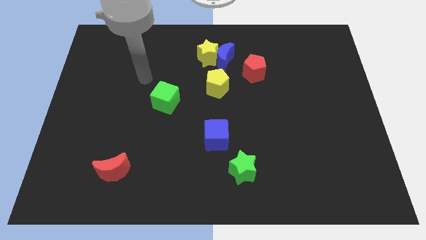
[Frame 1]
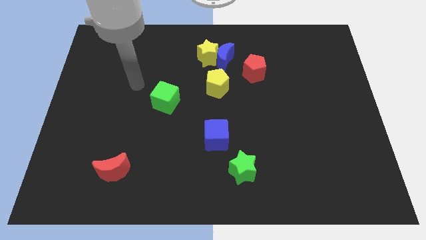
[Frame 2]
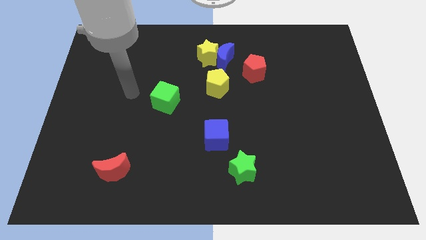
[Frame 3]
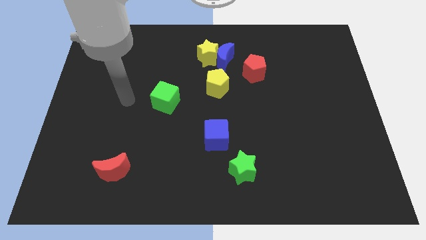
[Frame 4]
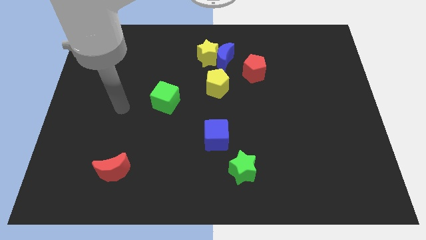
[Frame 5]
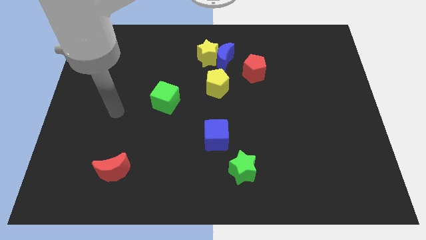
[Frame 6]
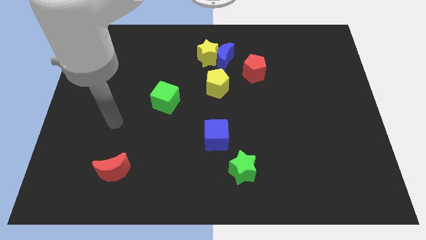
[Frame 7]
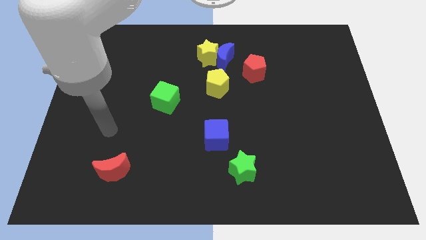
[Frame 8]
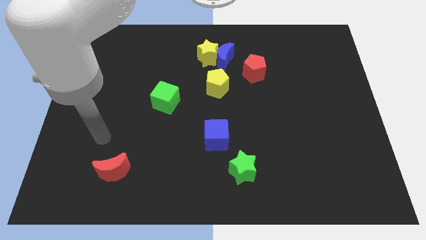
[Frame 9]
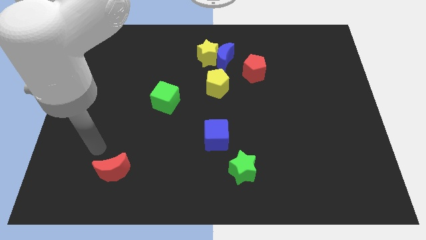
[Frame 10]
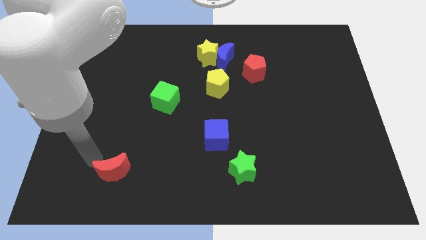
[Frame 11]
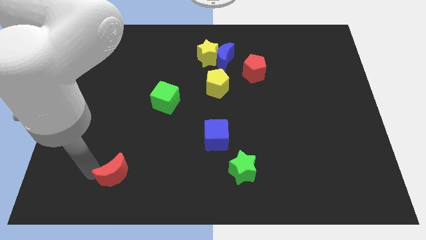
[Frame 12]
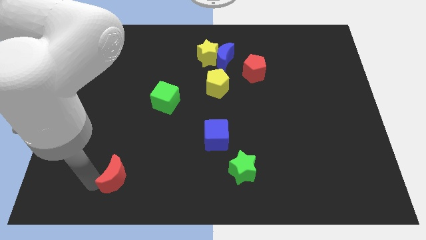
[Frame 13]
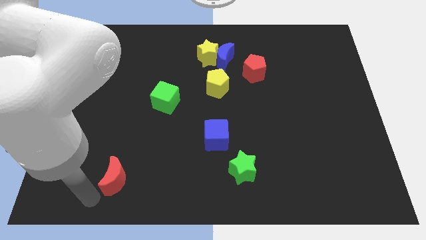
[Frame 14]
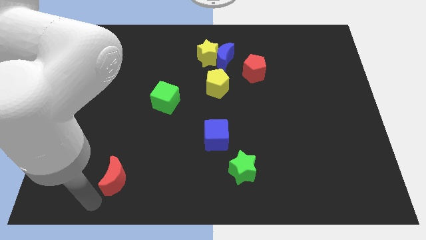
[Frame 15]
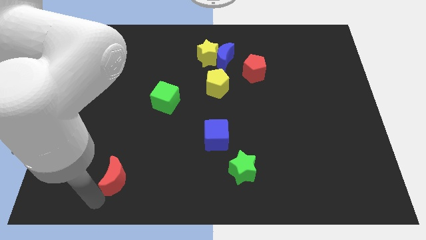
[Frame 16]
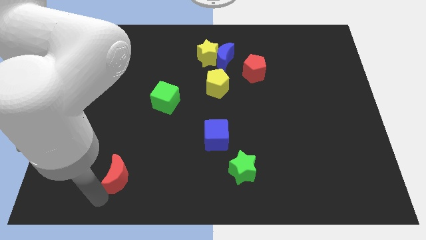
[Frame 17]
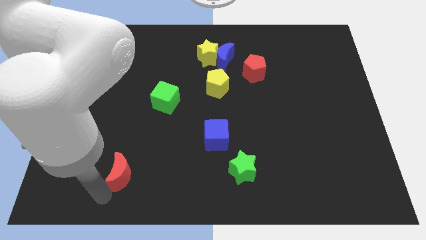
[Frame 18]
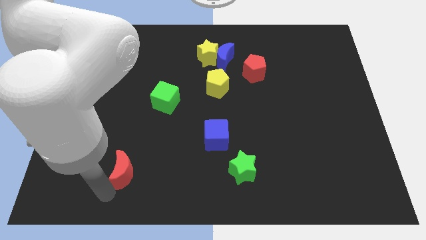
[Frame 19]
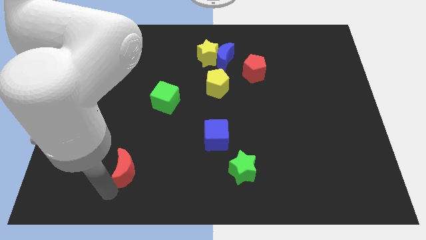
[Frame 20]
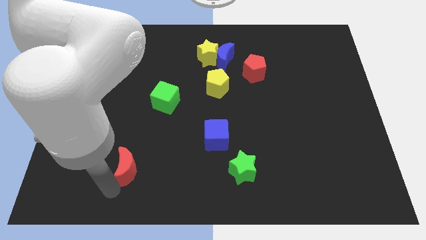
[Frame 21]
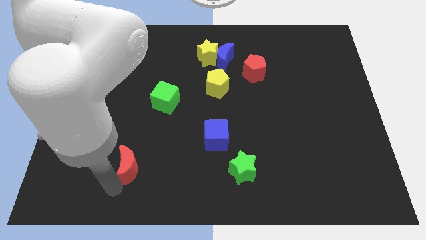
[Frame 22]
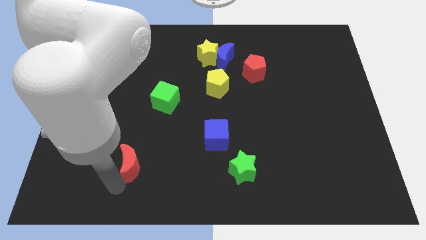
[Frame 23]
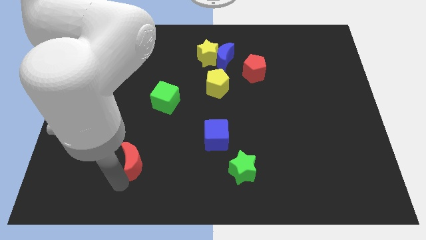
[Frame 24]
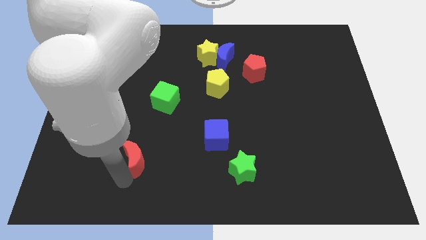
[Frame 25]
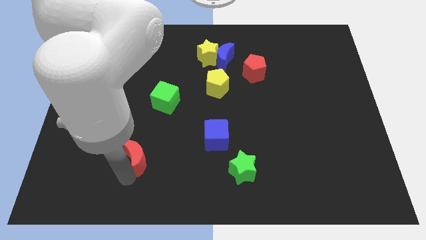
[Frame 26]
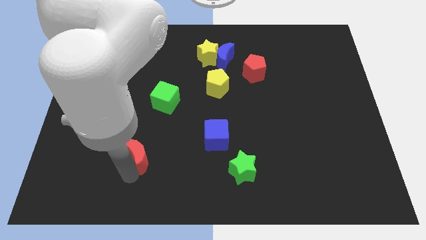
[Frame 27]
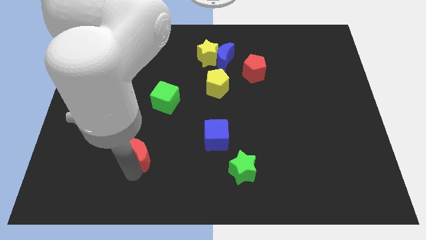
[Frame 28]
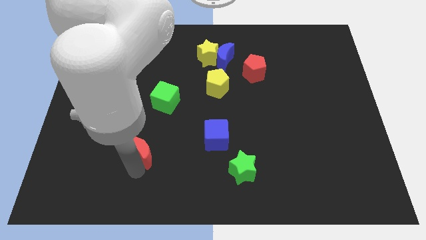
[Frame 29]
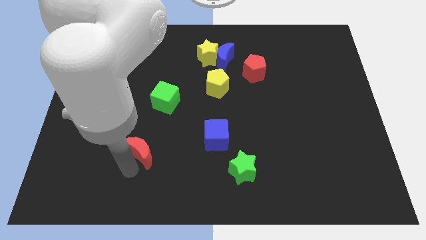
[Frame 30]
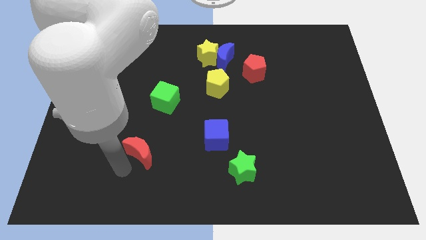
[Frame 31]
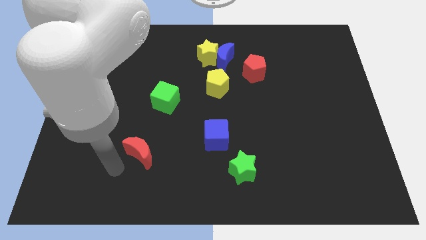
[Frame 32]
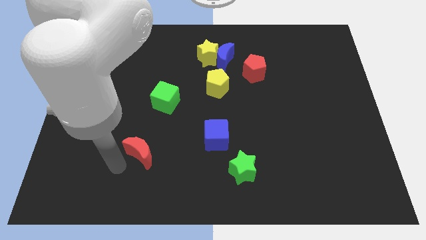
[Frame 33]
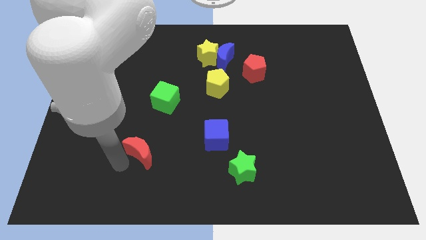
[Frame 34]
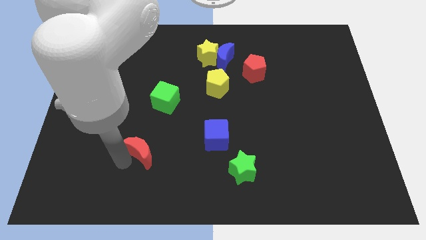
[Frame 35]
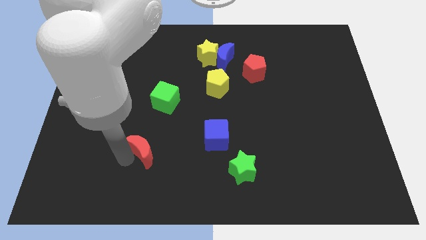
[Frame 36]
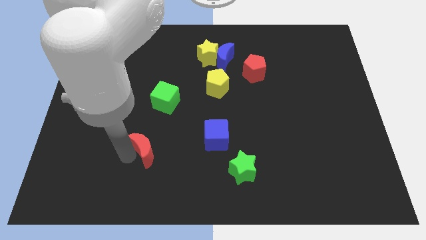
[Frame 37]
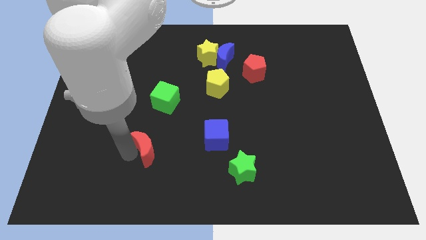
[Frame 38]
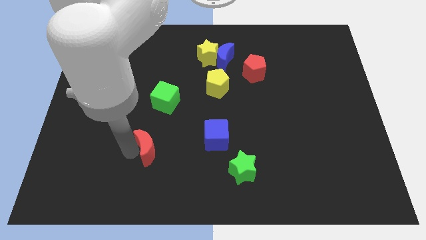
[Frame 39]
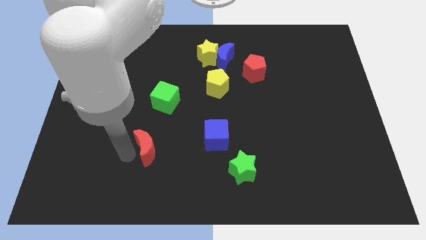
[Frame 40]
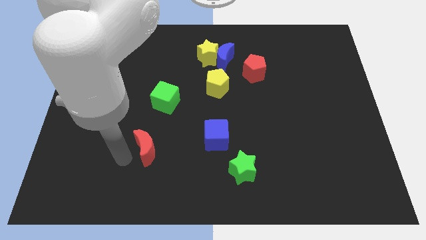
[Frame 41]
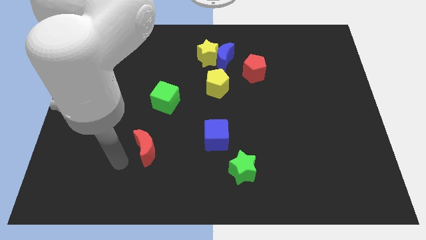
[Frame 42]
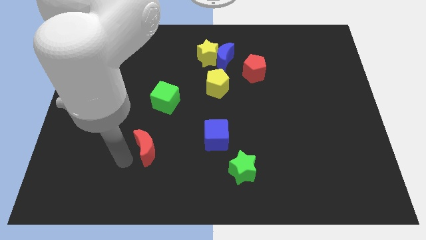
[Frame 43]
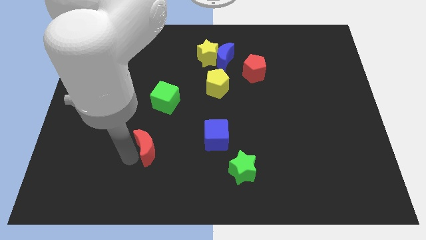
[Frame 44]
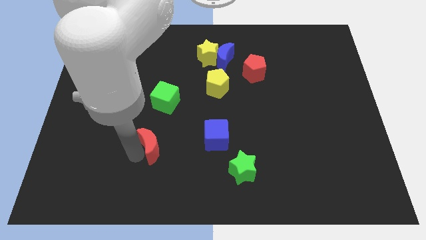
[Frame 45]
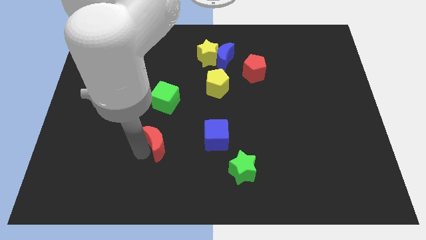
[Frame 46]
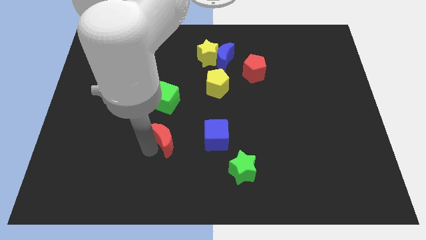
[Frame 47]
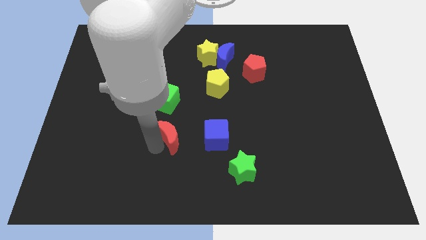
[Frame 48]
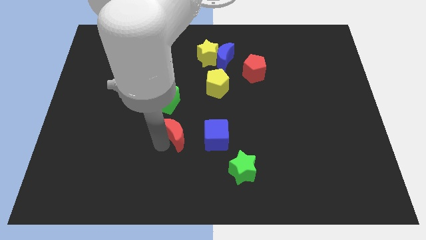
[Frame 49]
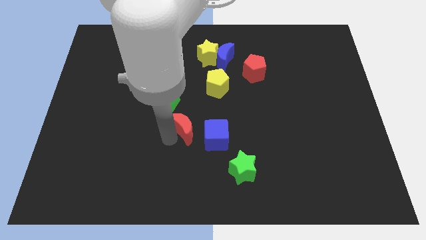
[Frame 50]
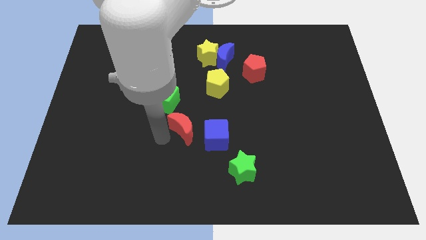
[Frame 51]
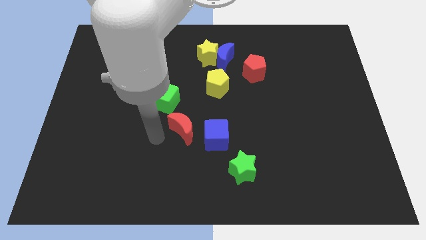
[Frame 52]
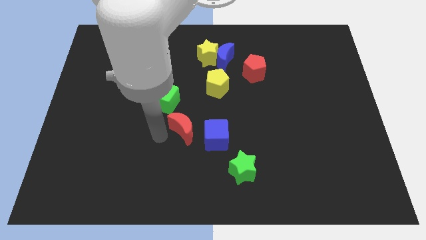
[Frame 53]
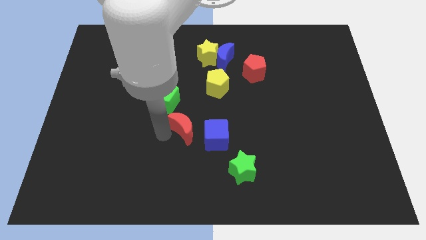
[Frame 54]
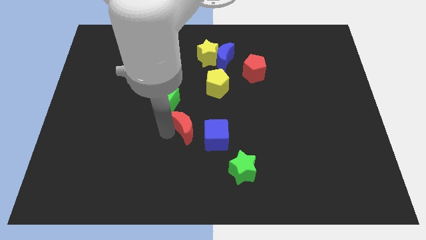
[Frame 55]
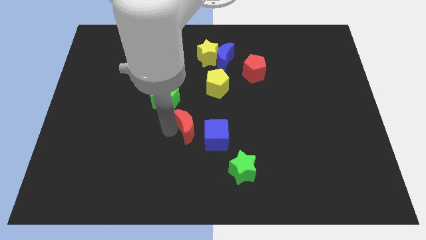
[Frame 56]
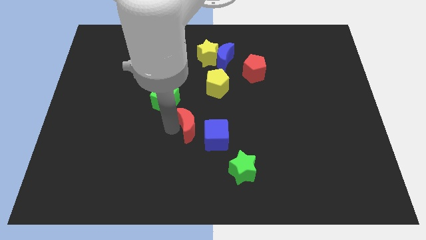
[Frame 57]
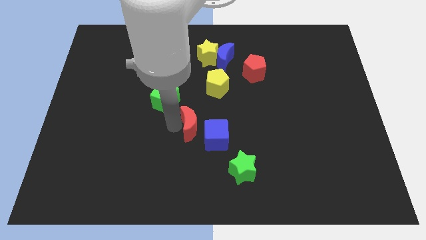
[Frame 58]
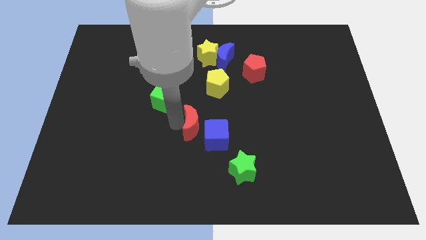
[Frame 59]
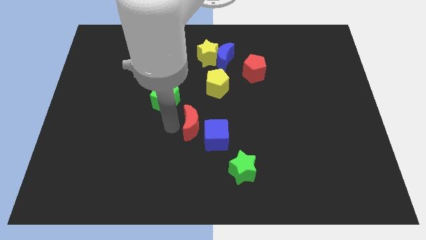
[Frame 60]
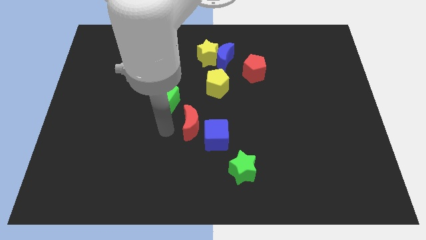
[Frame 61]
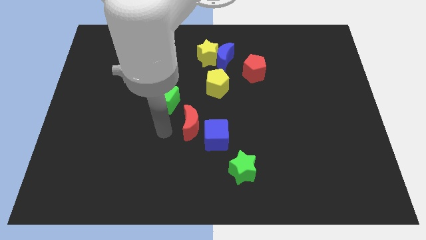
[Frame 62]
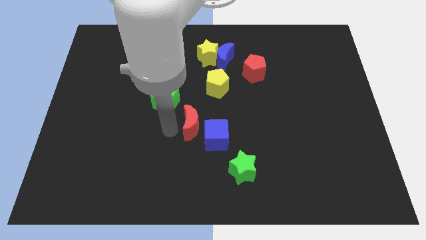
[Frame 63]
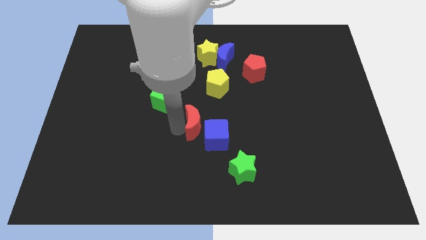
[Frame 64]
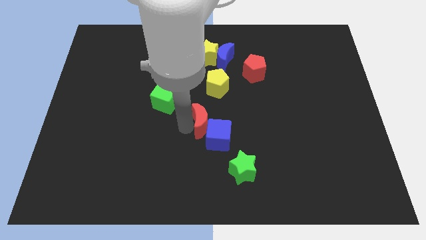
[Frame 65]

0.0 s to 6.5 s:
put the red moon to the bottom side of the yellow pentagon

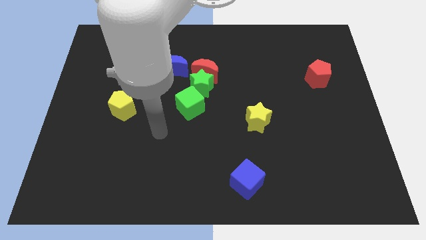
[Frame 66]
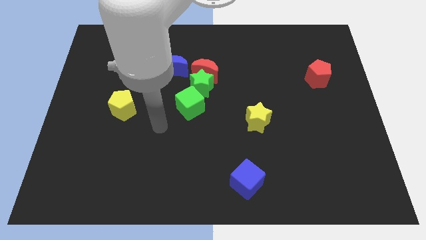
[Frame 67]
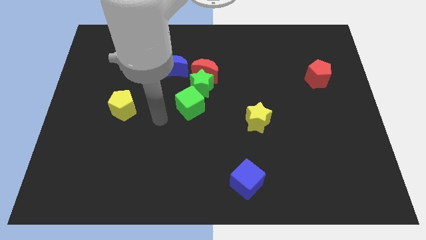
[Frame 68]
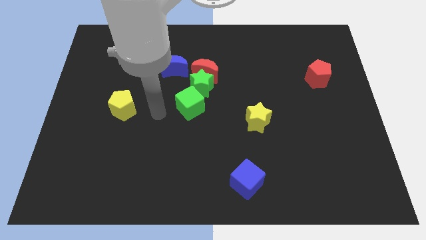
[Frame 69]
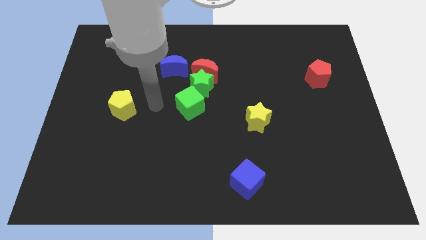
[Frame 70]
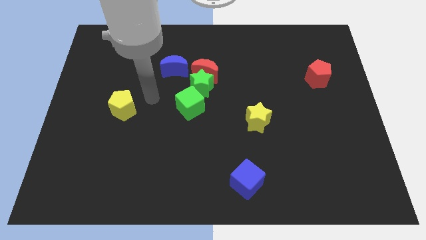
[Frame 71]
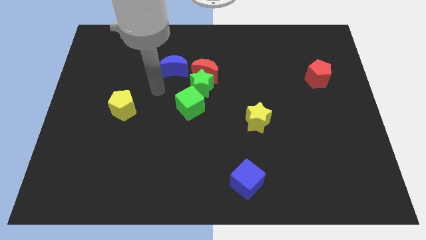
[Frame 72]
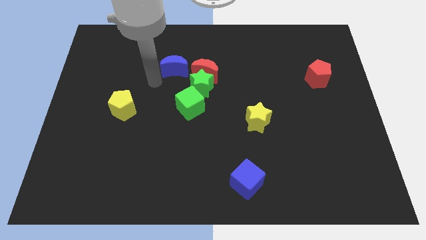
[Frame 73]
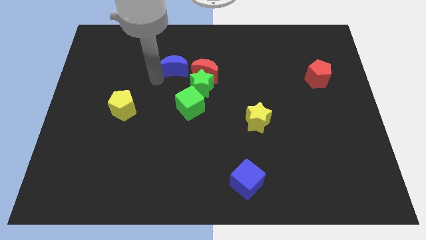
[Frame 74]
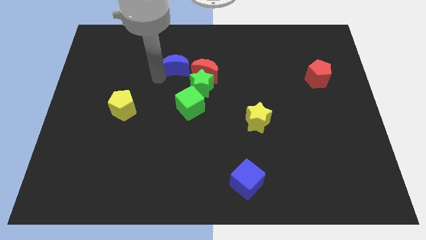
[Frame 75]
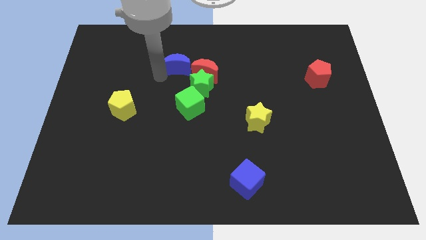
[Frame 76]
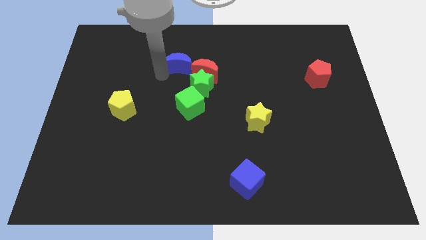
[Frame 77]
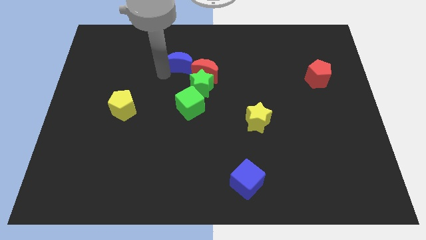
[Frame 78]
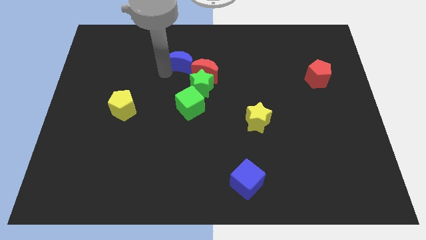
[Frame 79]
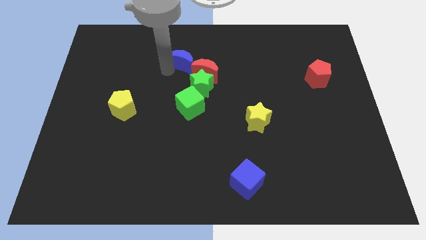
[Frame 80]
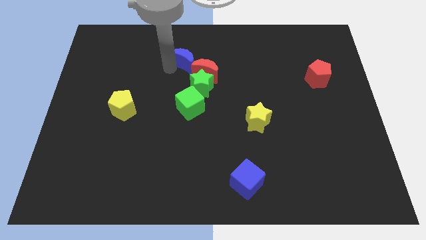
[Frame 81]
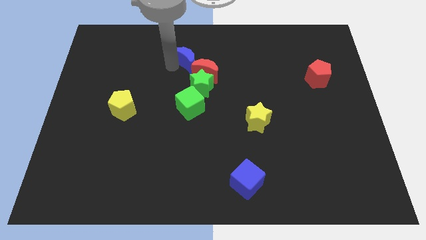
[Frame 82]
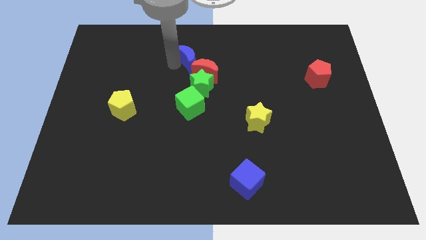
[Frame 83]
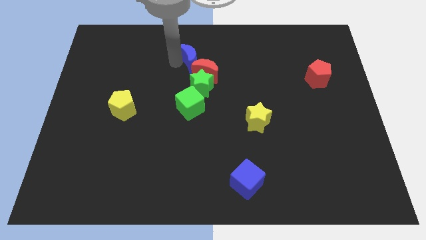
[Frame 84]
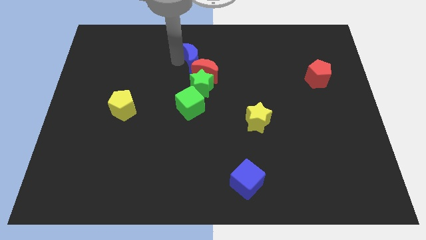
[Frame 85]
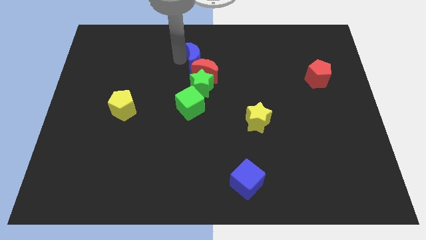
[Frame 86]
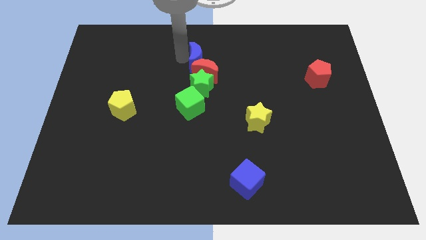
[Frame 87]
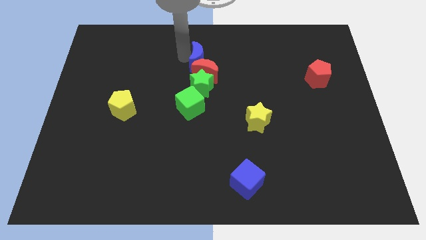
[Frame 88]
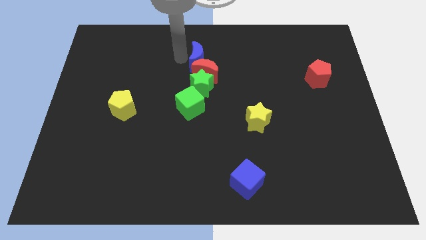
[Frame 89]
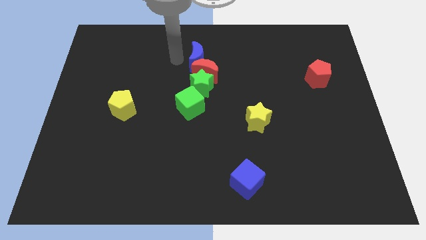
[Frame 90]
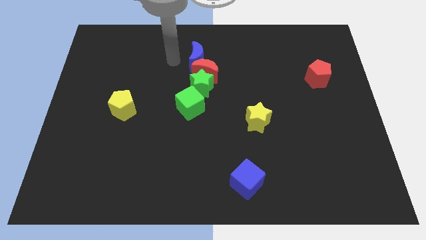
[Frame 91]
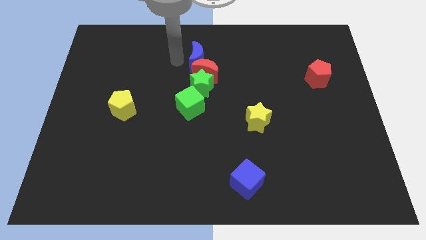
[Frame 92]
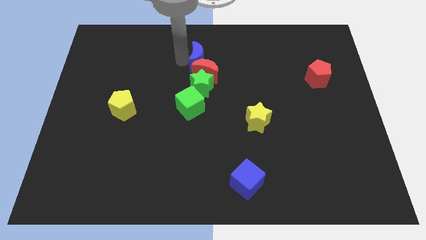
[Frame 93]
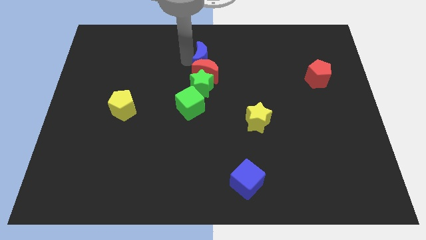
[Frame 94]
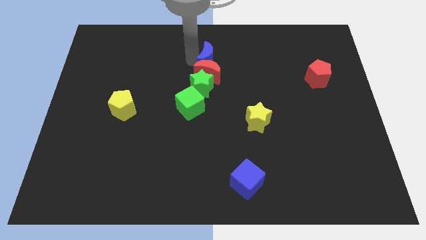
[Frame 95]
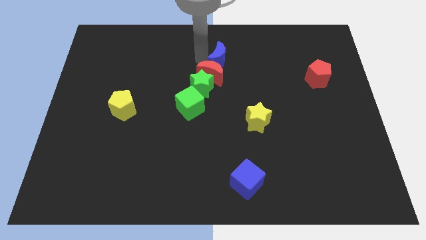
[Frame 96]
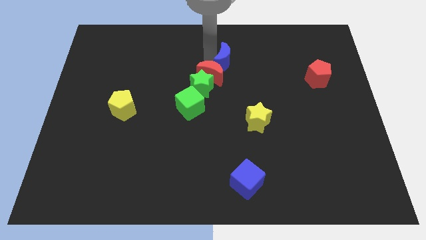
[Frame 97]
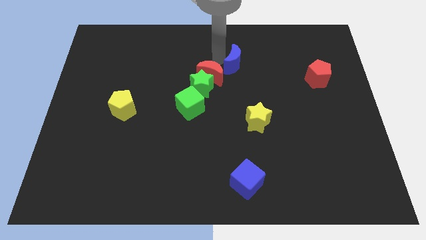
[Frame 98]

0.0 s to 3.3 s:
put the blue moon to the right of the red moon
